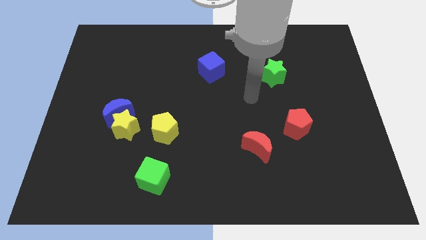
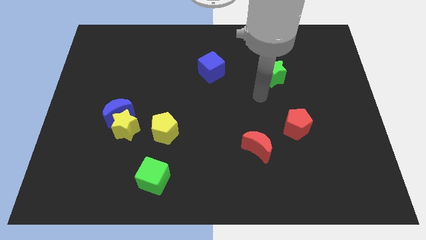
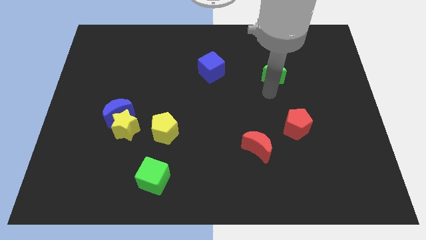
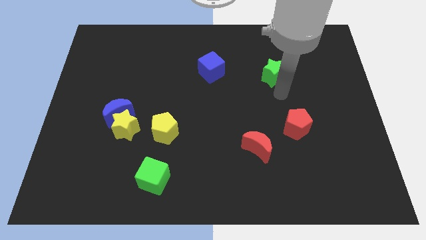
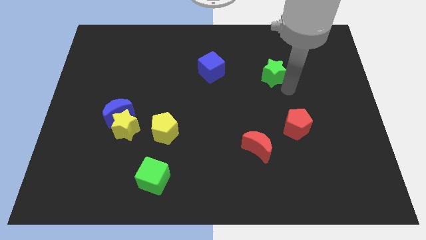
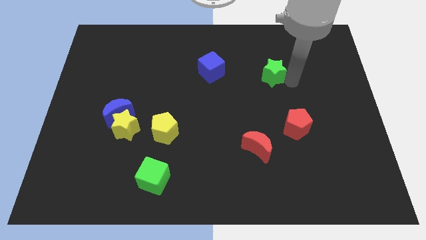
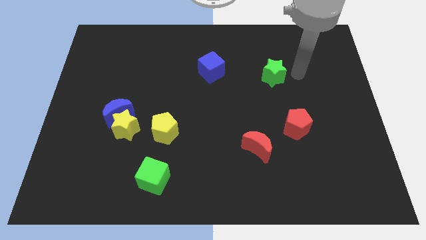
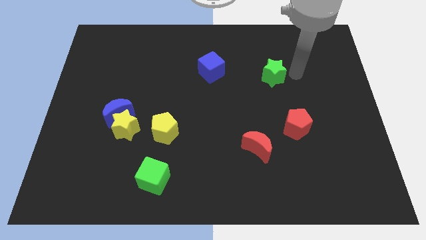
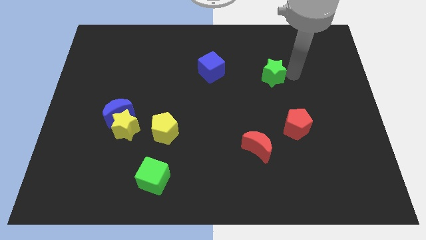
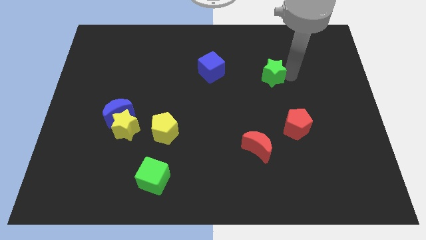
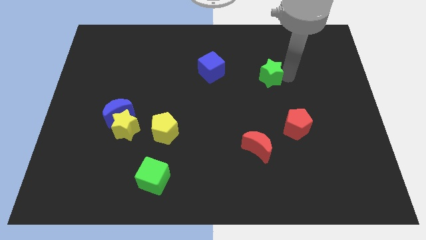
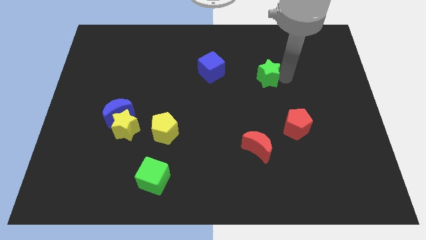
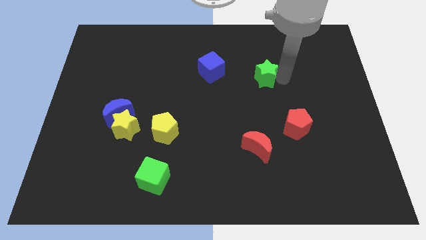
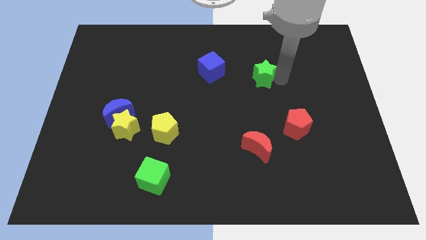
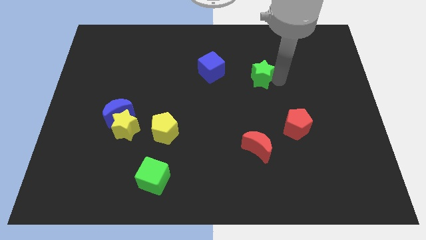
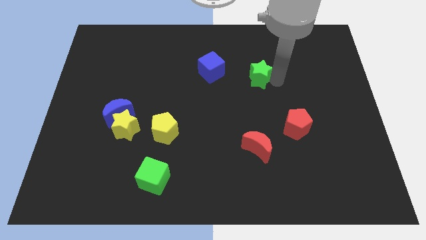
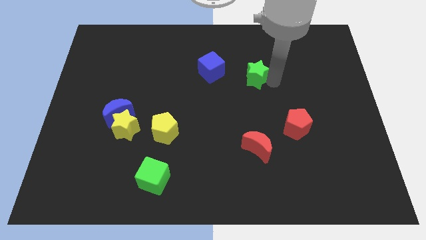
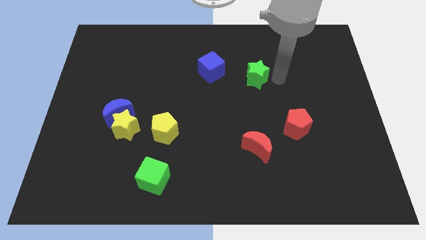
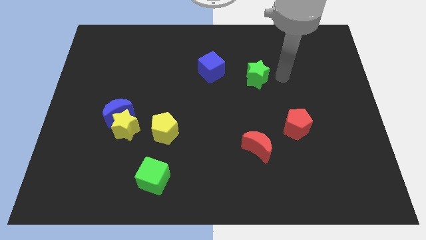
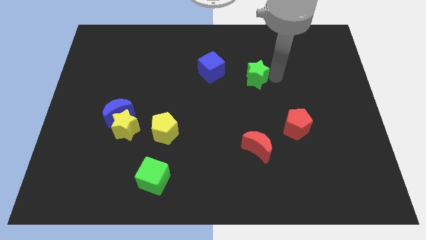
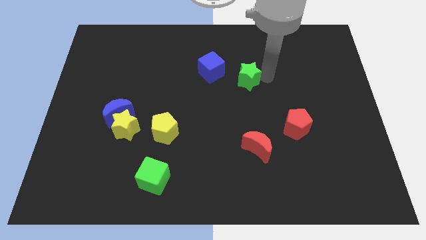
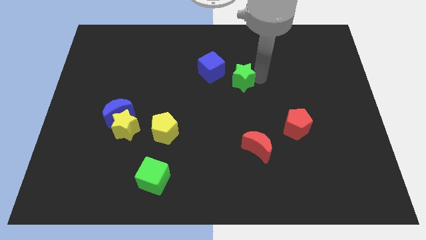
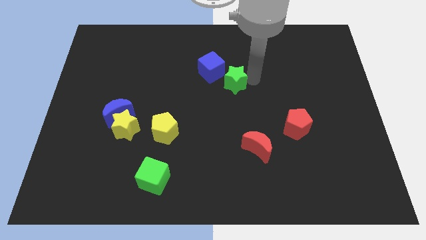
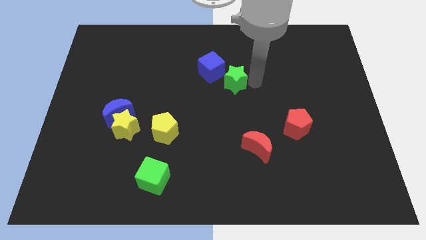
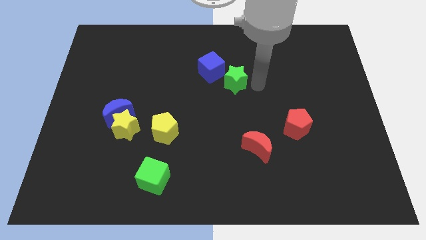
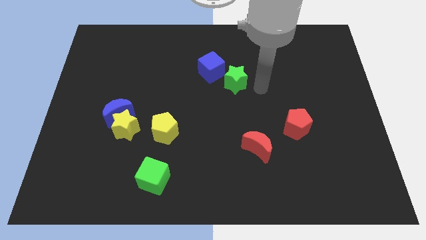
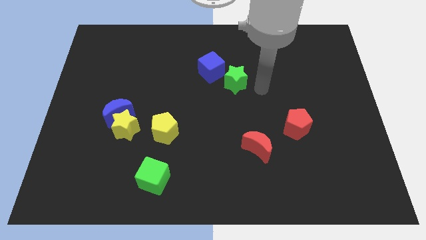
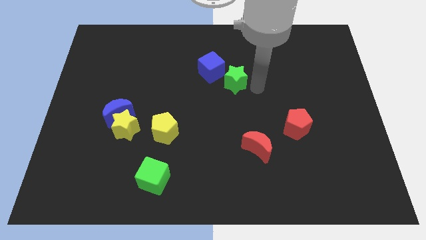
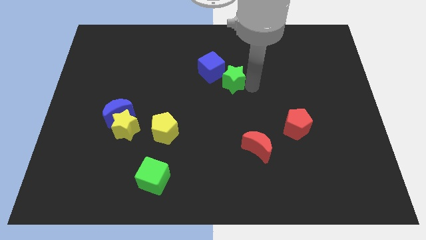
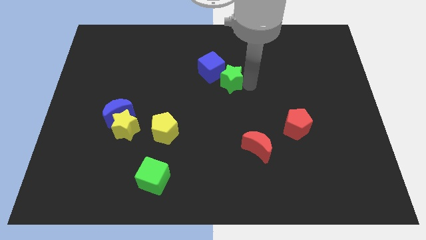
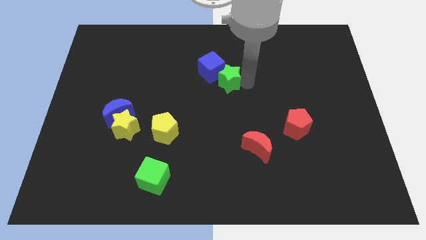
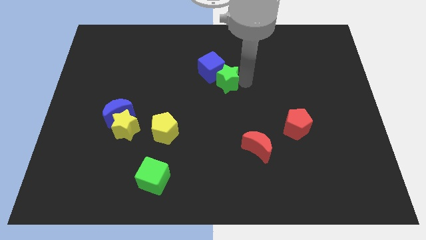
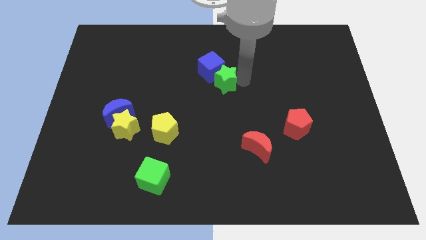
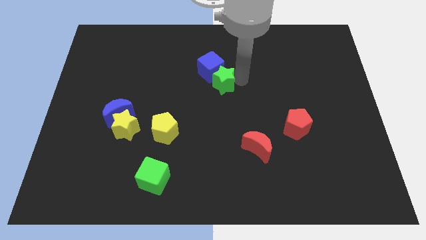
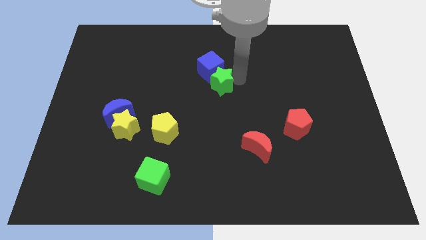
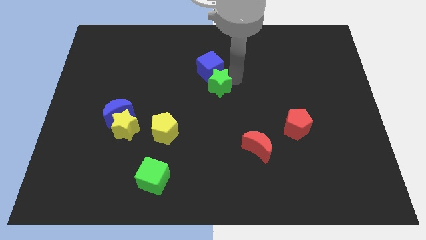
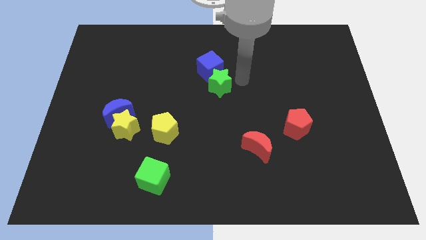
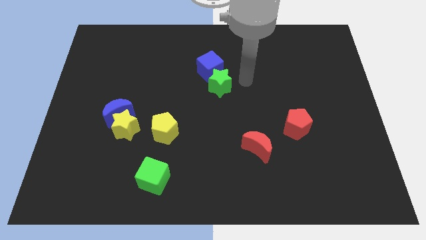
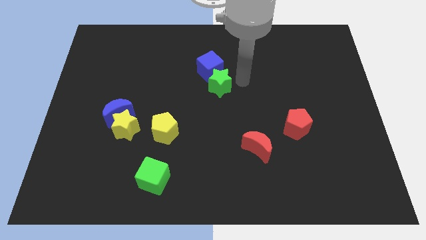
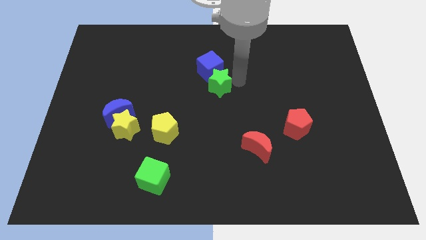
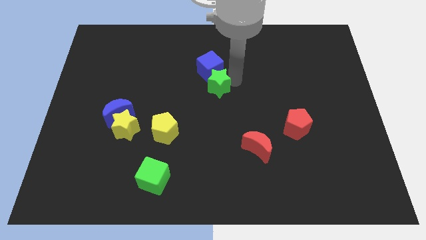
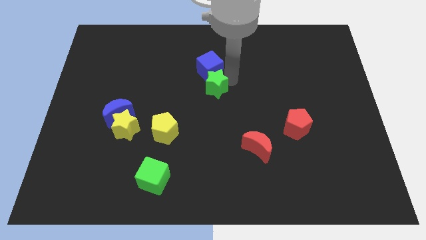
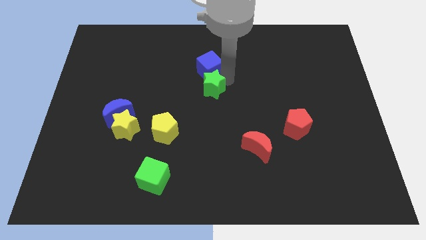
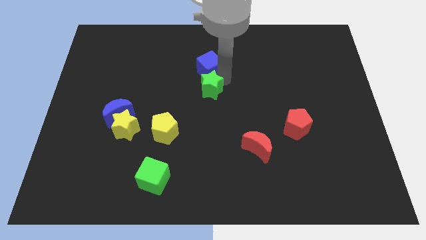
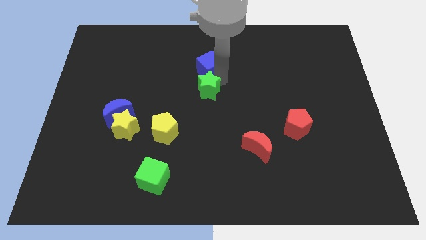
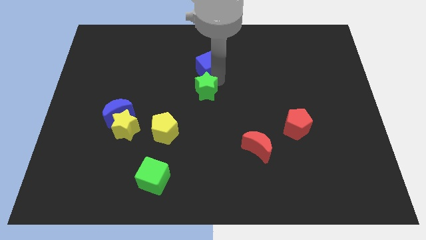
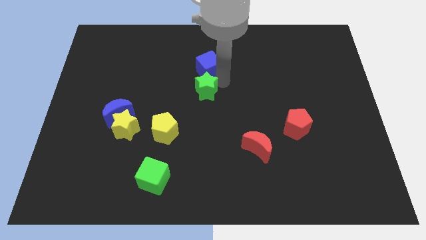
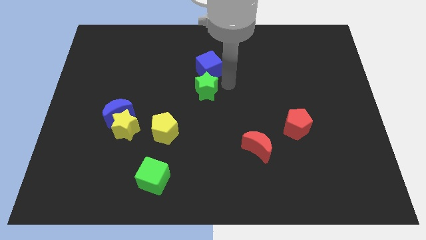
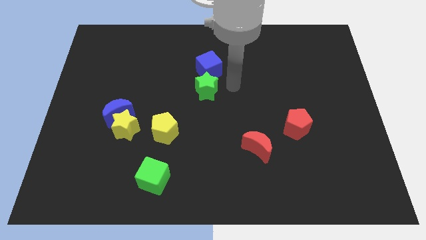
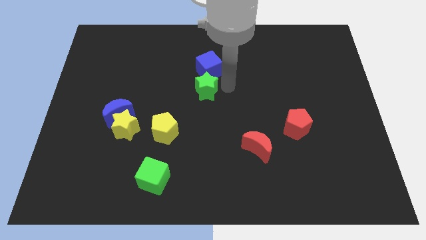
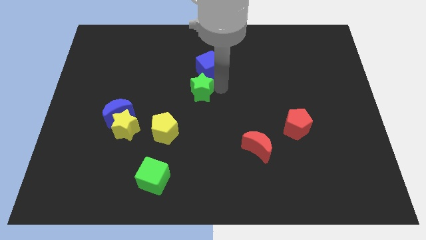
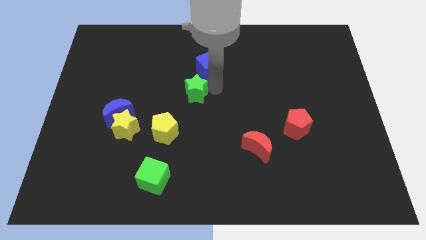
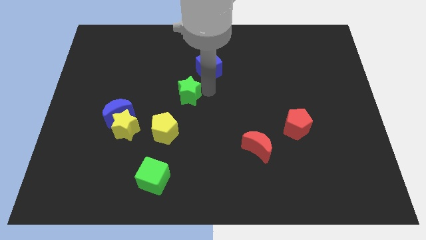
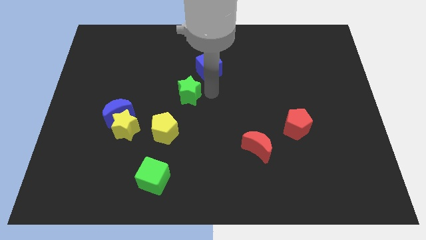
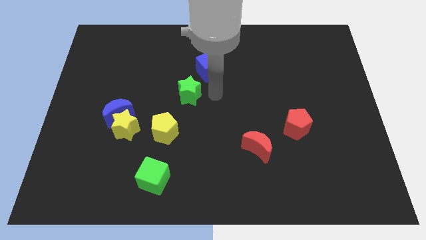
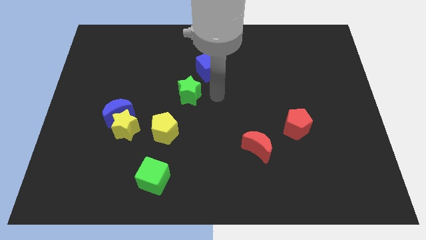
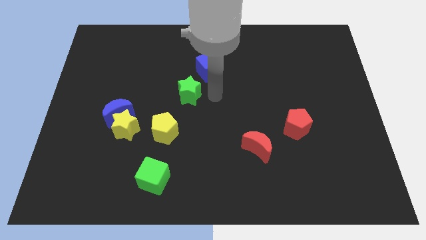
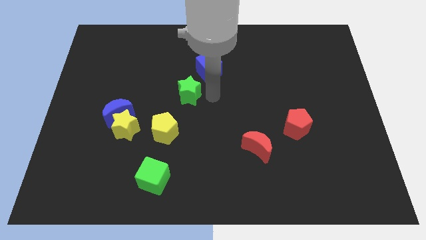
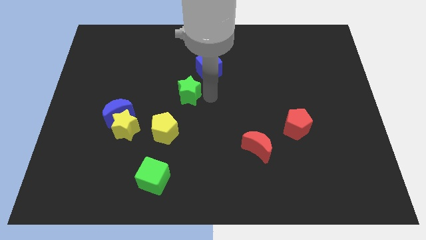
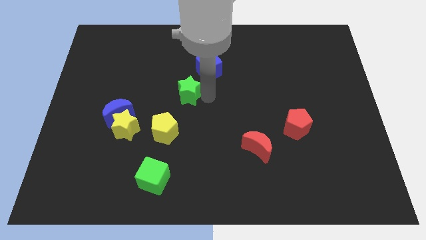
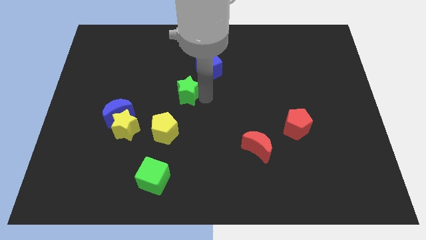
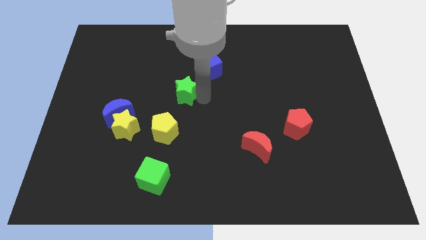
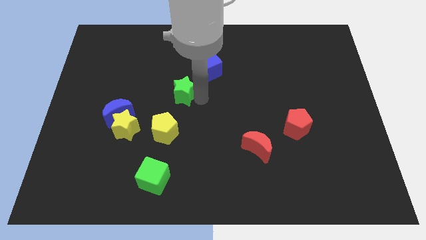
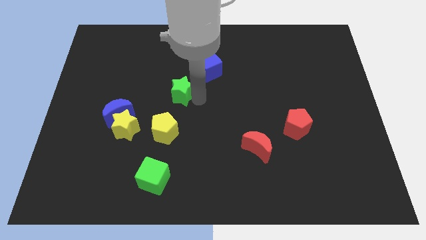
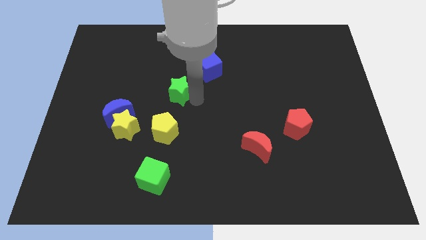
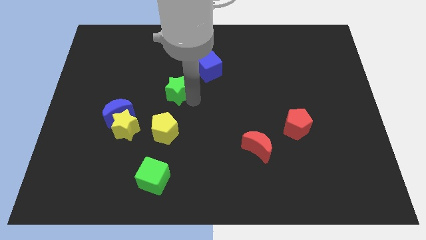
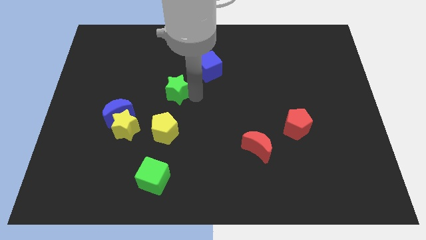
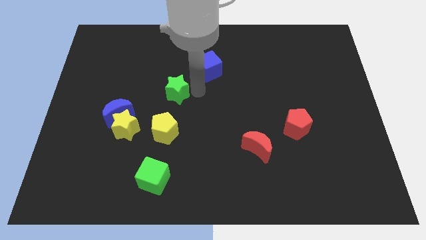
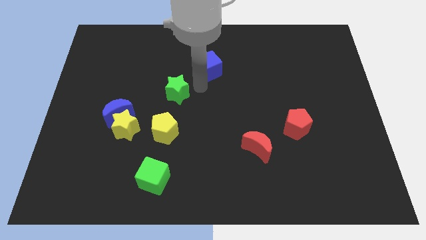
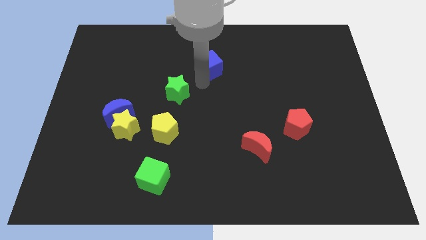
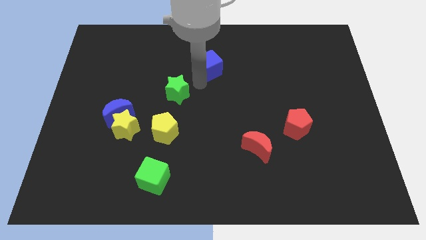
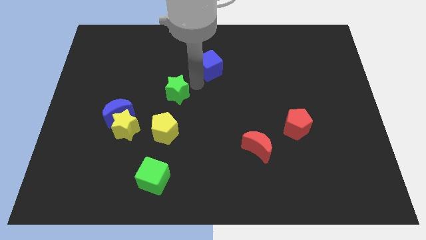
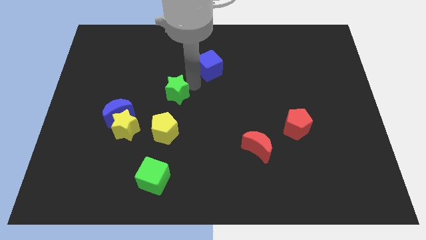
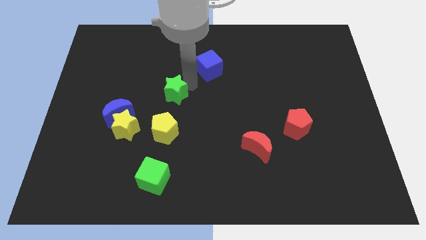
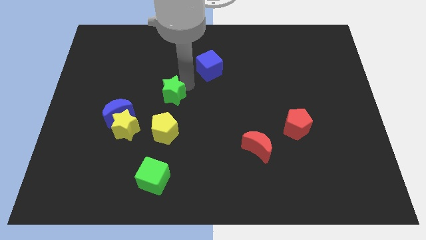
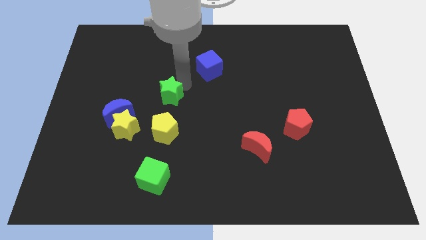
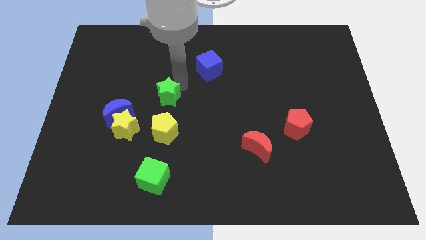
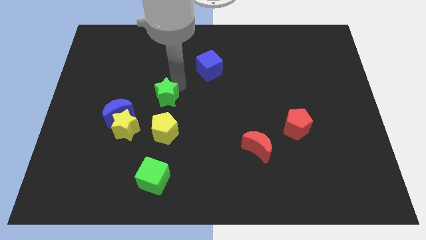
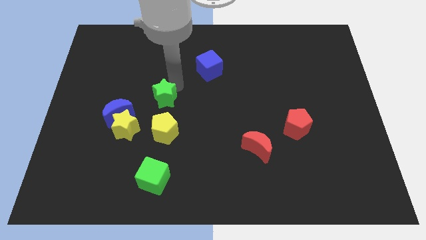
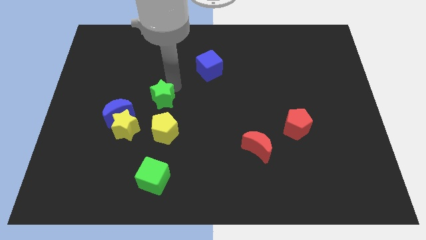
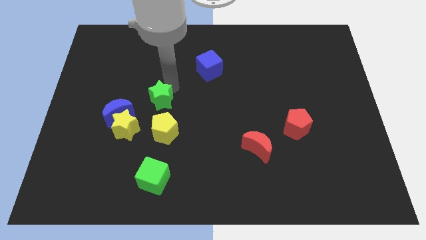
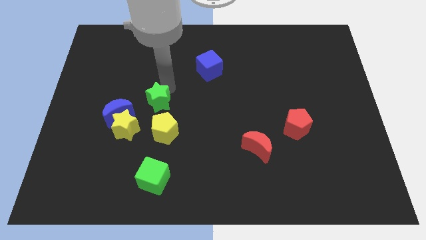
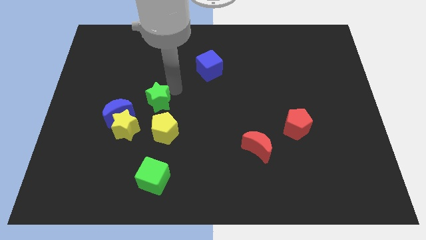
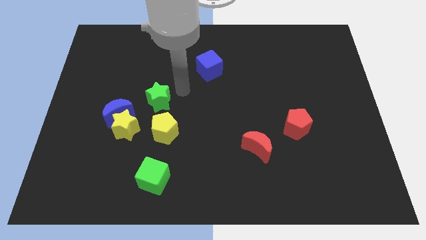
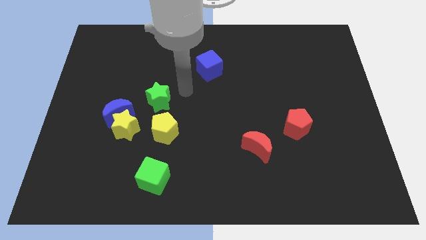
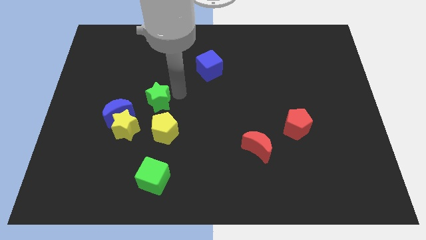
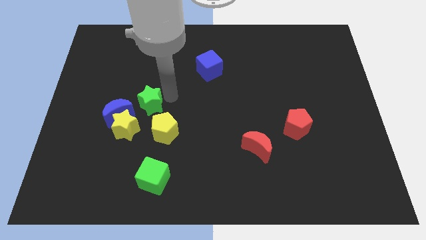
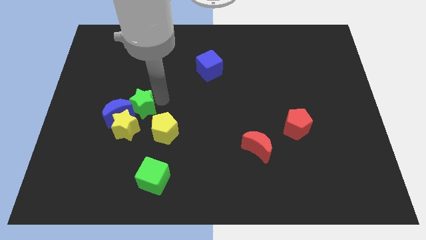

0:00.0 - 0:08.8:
push the green star next to the blue moon
